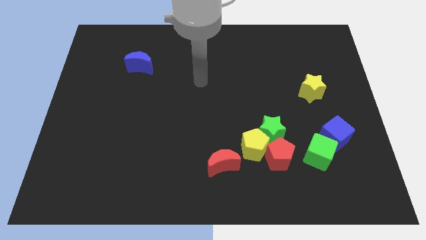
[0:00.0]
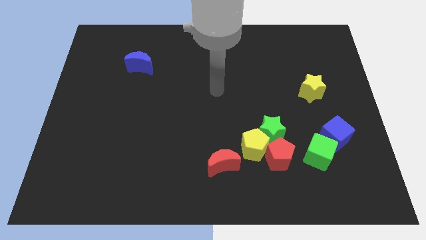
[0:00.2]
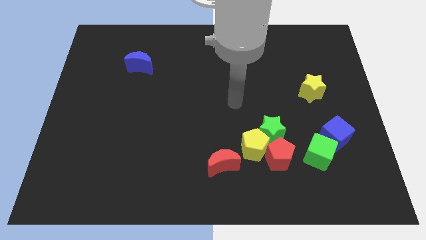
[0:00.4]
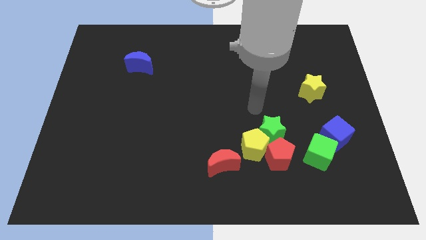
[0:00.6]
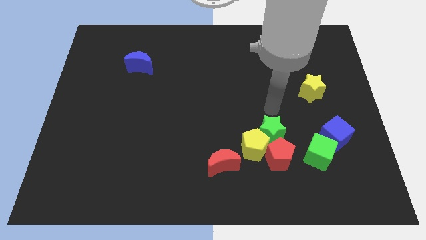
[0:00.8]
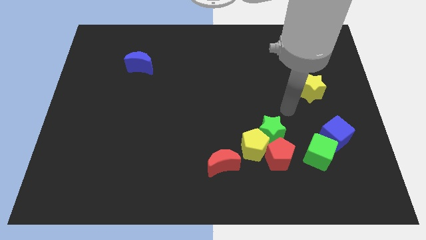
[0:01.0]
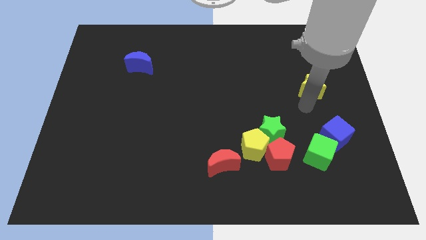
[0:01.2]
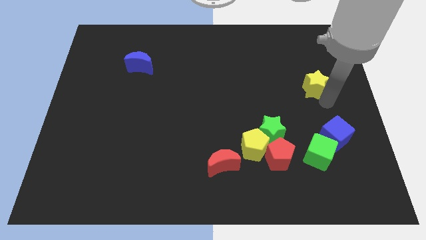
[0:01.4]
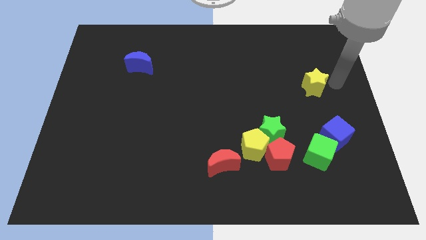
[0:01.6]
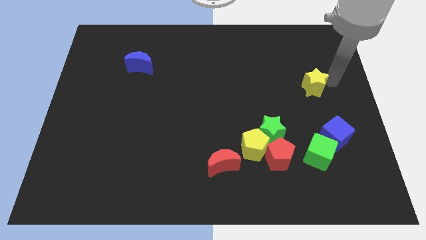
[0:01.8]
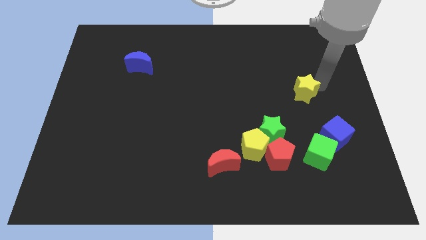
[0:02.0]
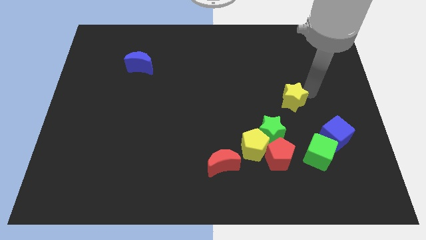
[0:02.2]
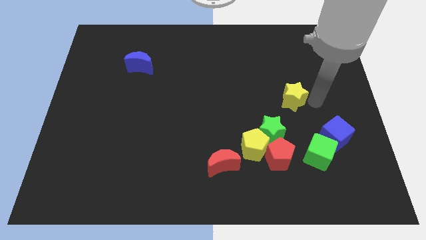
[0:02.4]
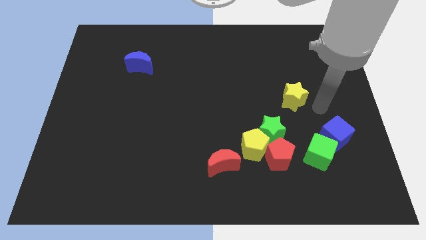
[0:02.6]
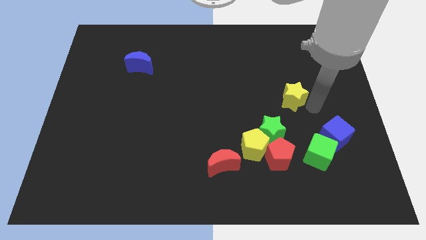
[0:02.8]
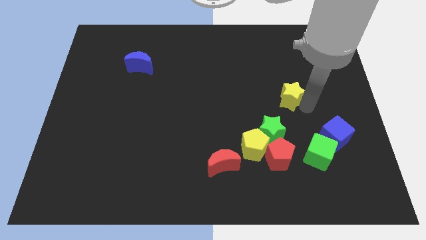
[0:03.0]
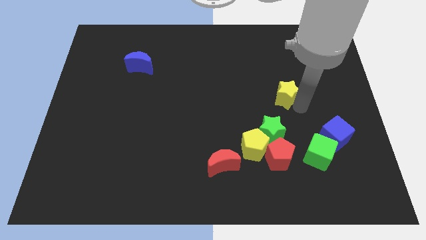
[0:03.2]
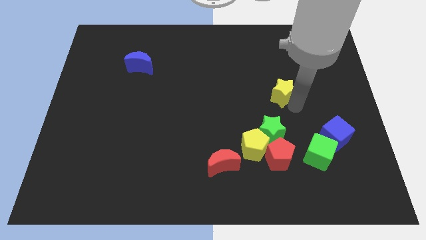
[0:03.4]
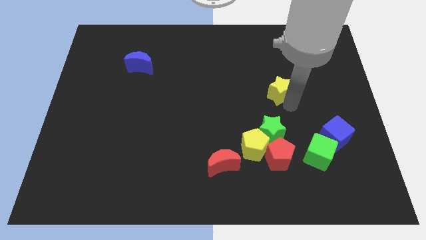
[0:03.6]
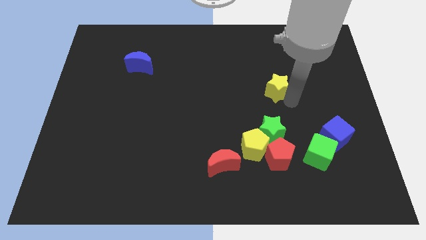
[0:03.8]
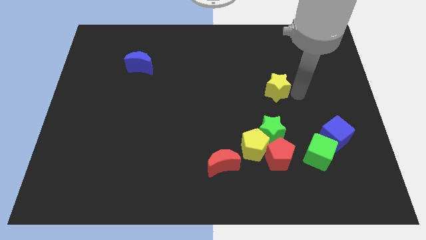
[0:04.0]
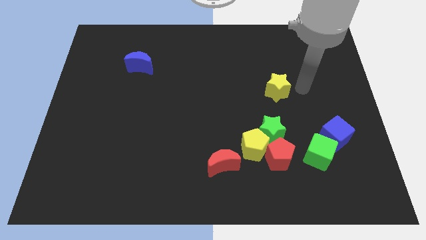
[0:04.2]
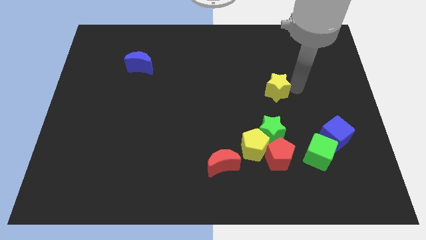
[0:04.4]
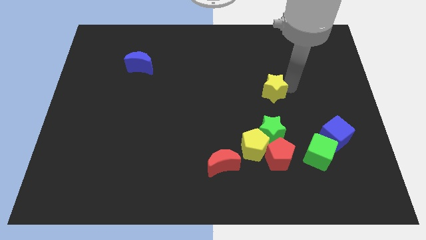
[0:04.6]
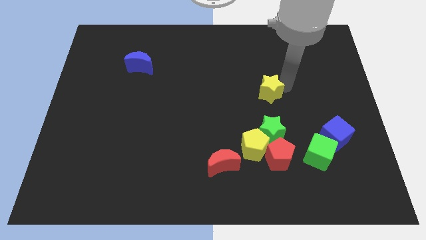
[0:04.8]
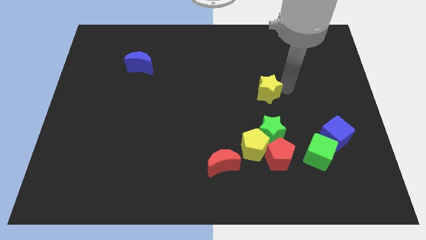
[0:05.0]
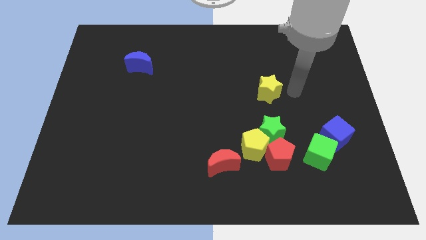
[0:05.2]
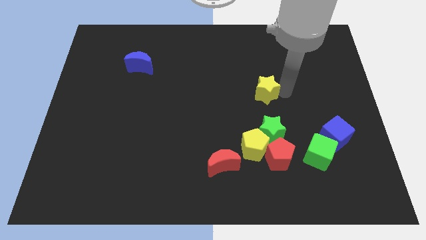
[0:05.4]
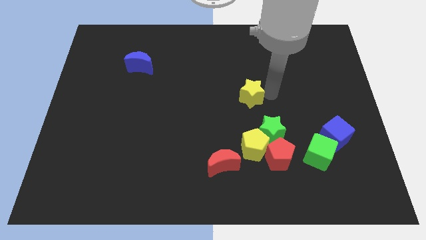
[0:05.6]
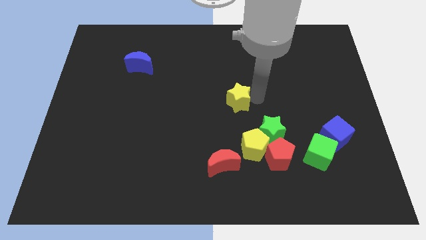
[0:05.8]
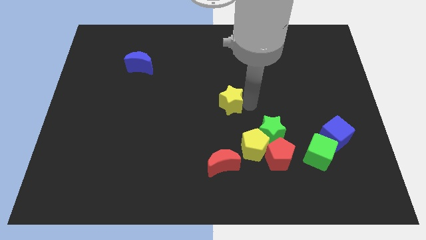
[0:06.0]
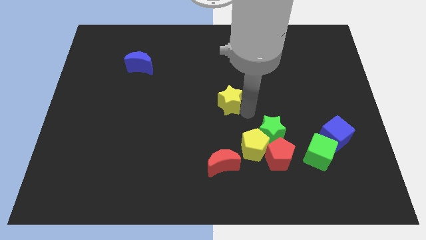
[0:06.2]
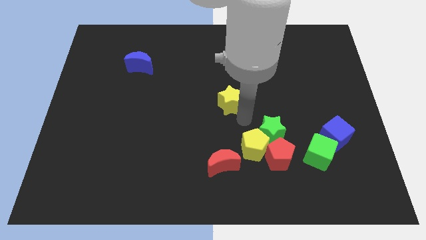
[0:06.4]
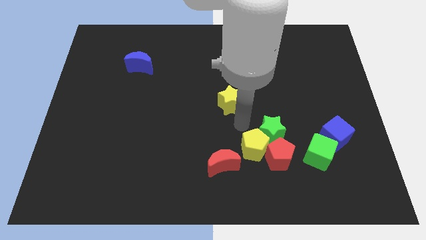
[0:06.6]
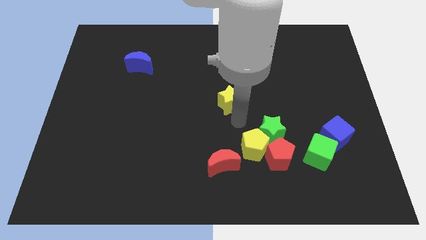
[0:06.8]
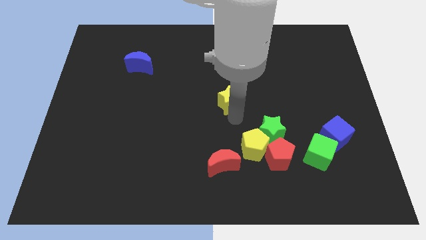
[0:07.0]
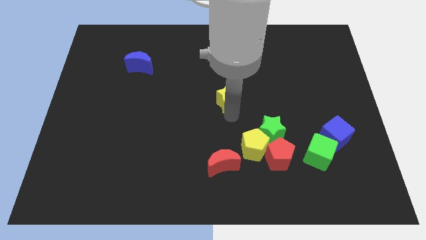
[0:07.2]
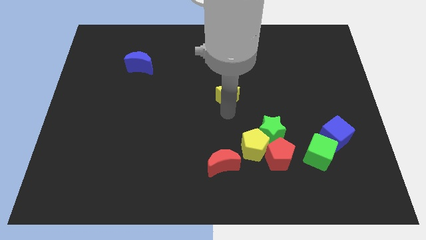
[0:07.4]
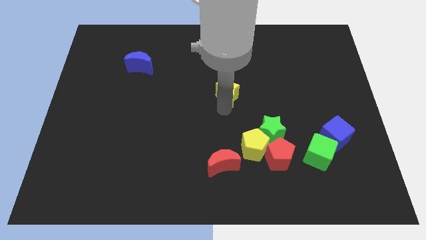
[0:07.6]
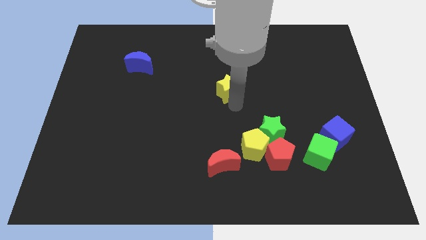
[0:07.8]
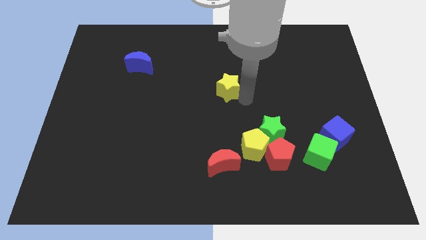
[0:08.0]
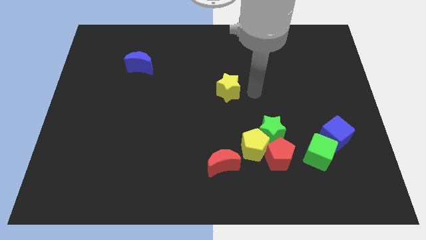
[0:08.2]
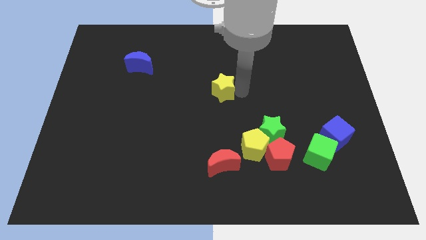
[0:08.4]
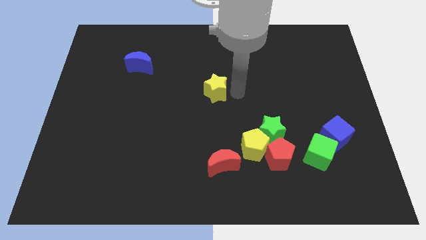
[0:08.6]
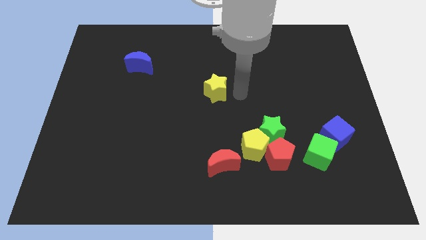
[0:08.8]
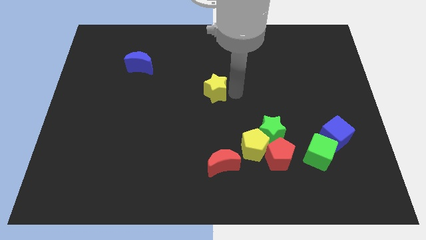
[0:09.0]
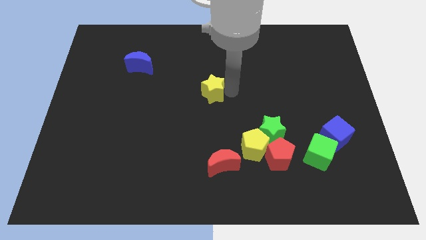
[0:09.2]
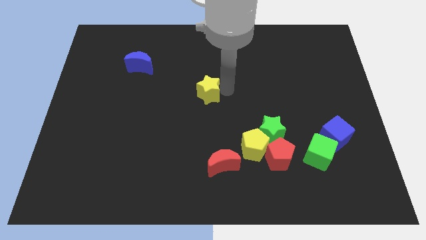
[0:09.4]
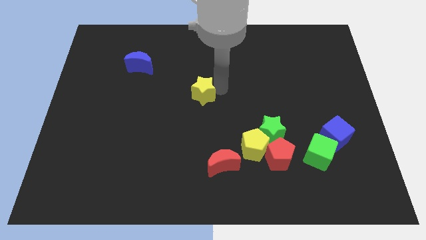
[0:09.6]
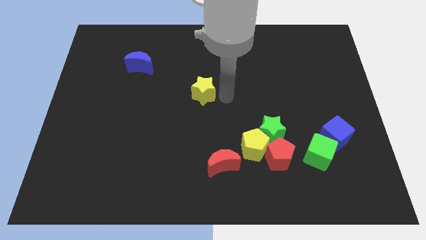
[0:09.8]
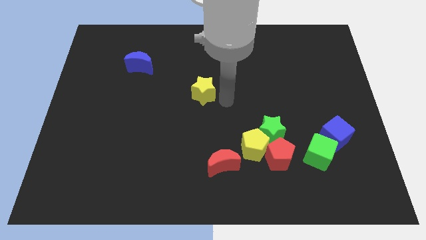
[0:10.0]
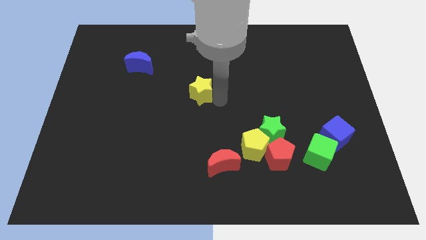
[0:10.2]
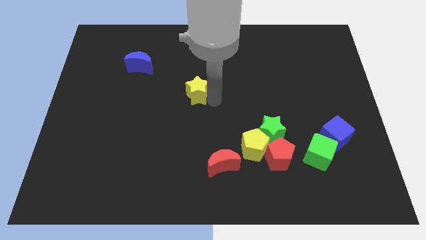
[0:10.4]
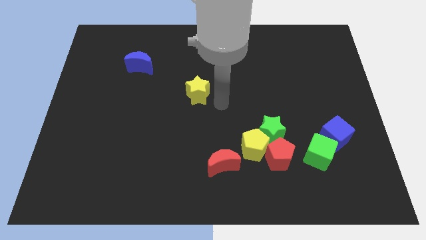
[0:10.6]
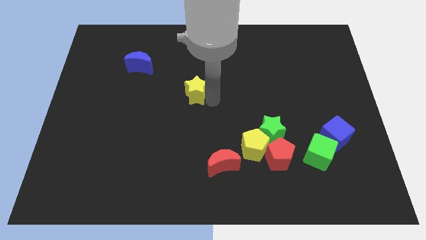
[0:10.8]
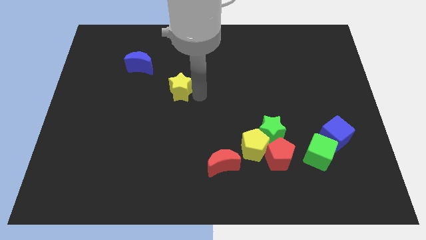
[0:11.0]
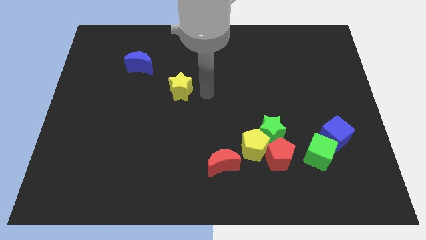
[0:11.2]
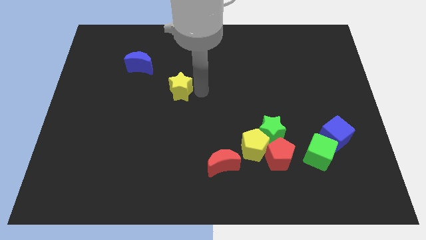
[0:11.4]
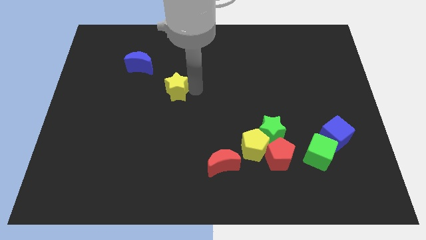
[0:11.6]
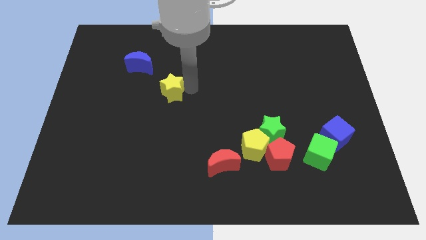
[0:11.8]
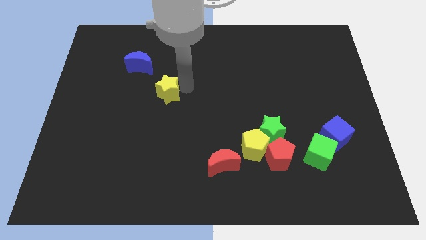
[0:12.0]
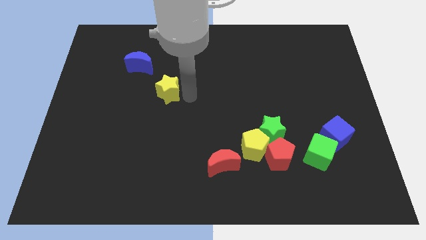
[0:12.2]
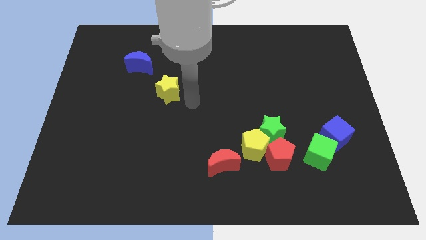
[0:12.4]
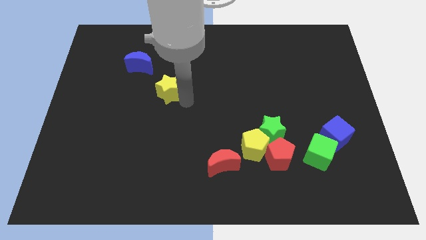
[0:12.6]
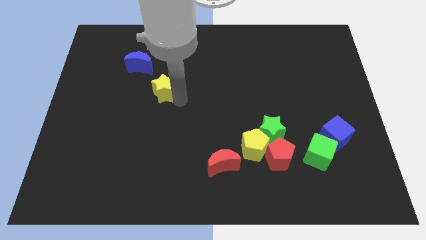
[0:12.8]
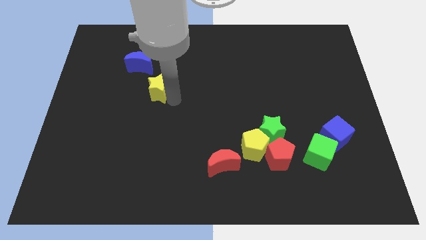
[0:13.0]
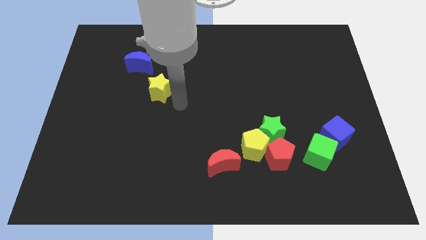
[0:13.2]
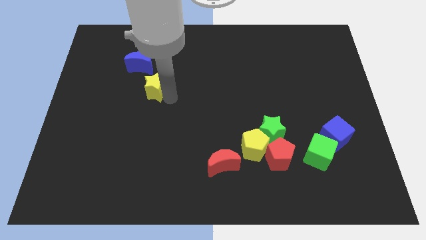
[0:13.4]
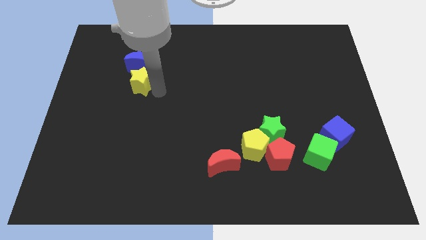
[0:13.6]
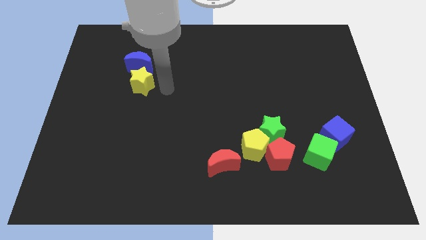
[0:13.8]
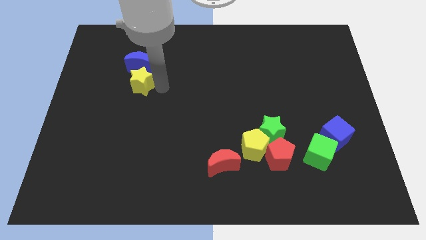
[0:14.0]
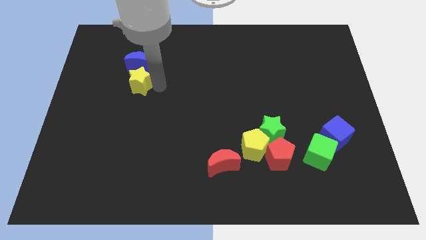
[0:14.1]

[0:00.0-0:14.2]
push the yellow star diagonally down and to the left of the blue moon
